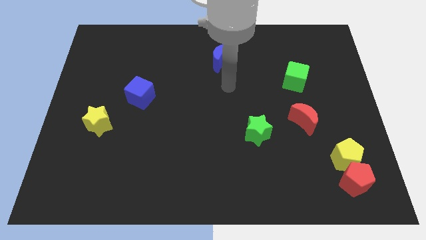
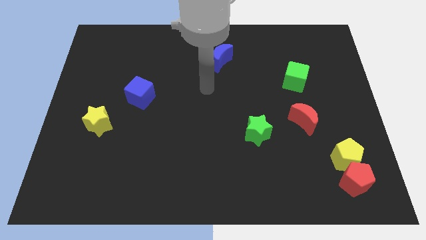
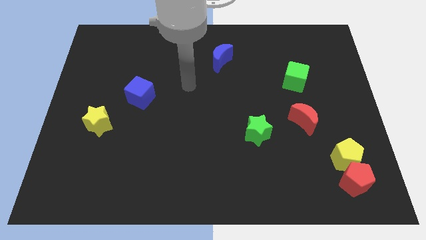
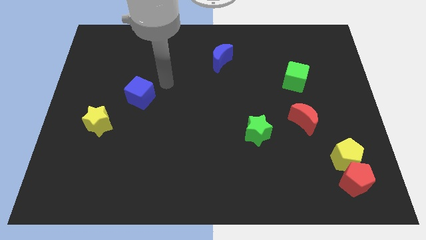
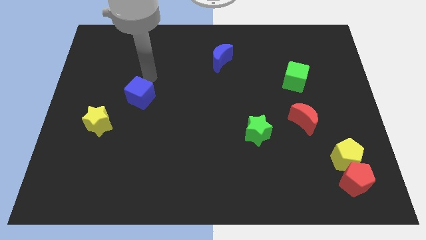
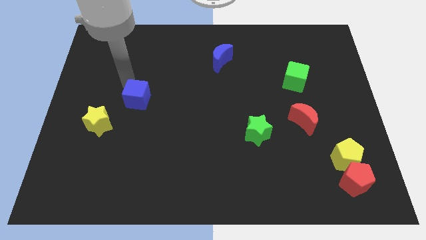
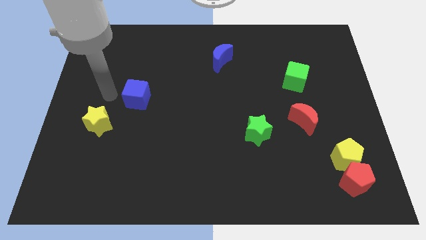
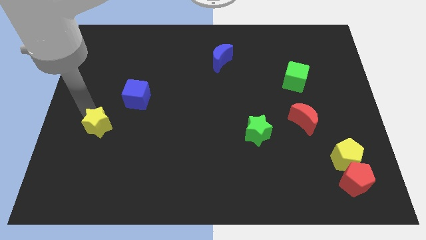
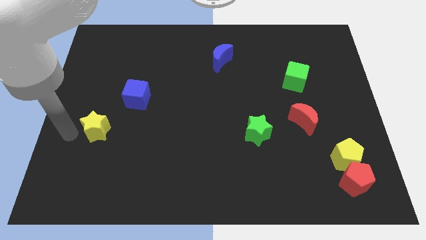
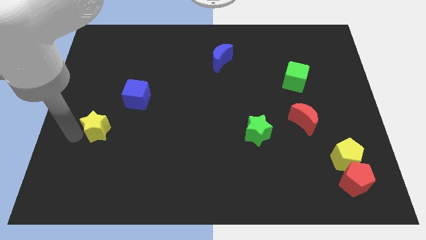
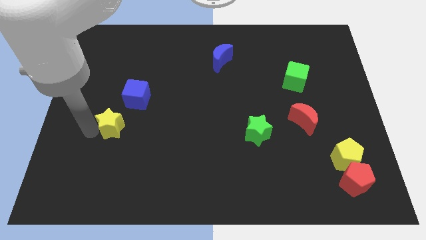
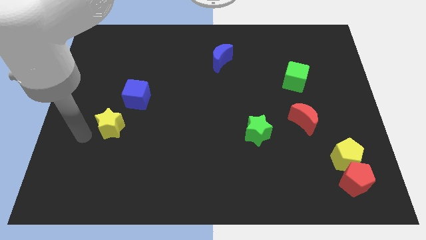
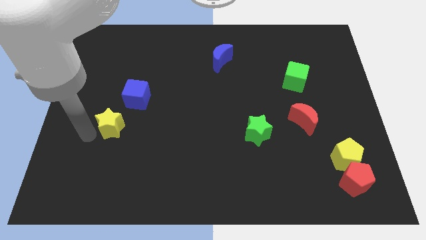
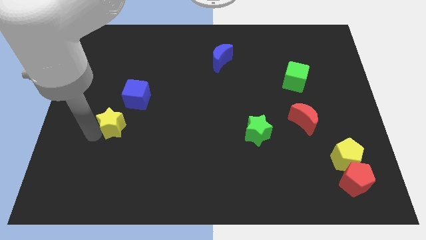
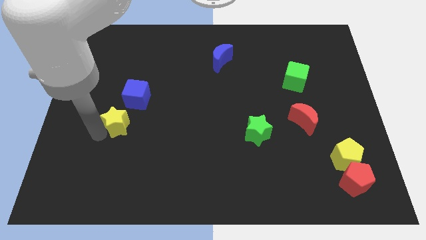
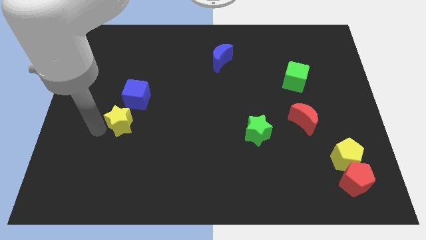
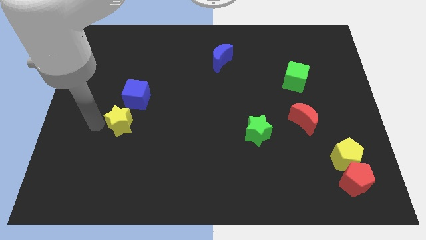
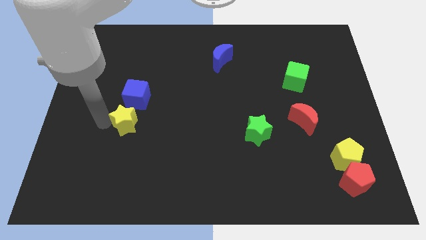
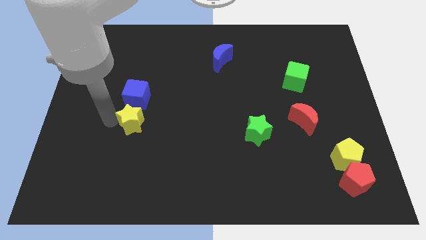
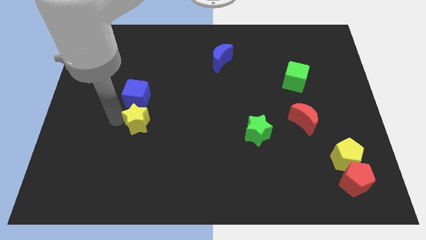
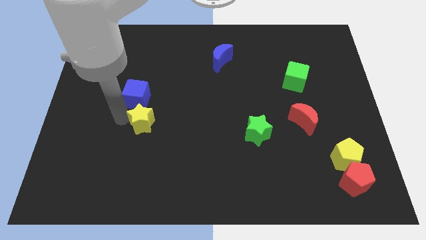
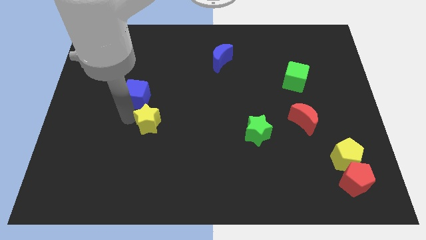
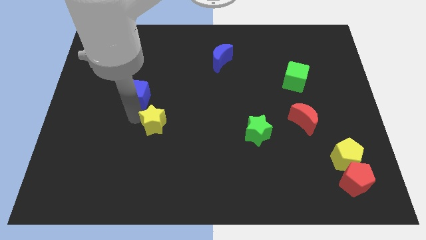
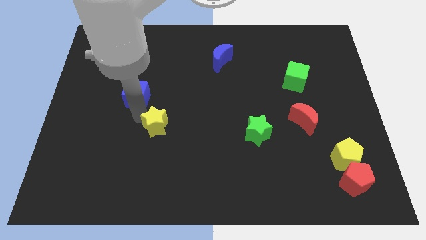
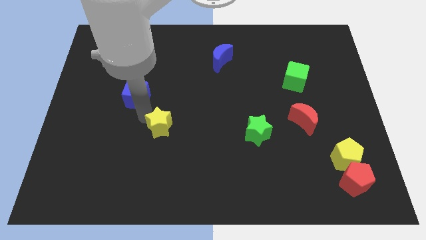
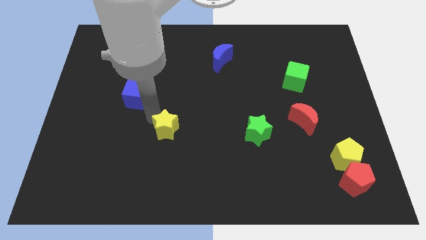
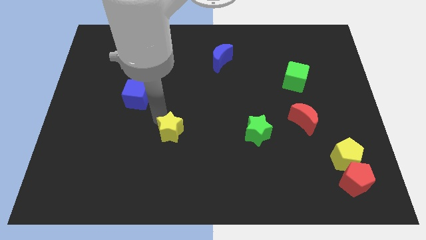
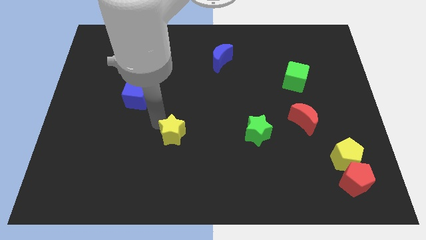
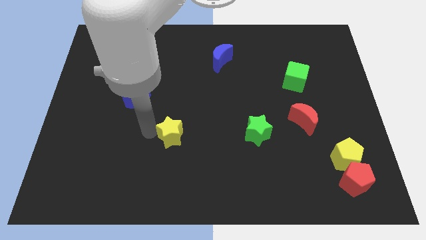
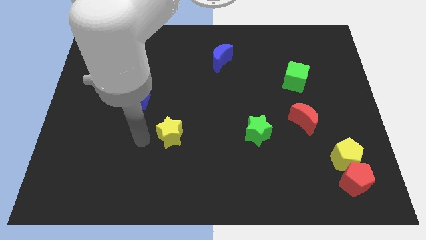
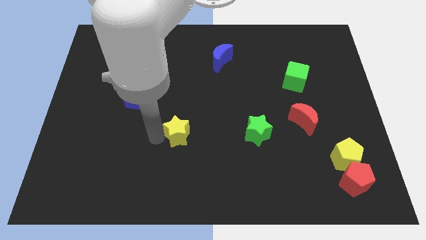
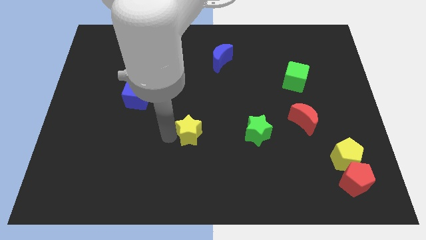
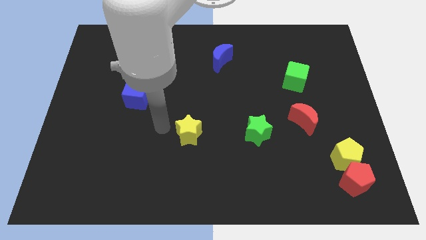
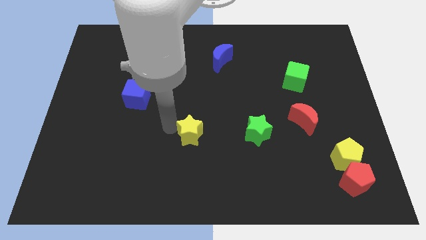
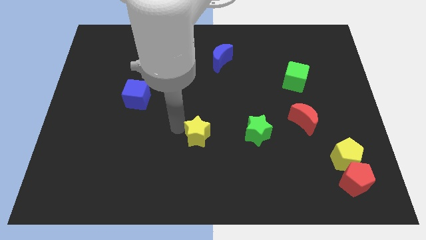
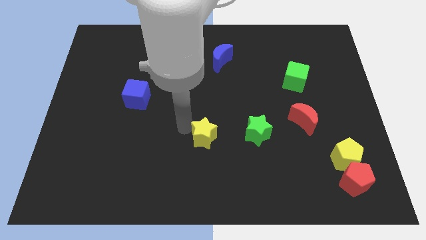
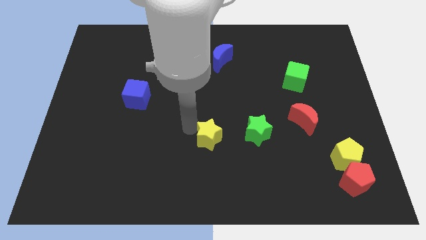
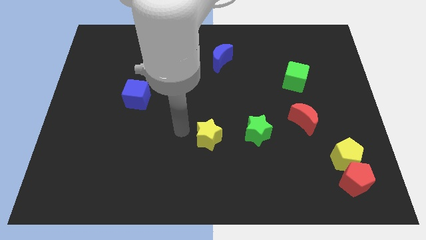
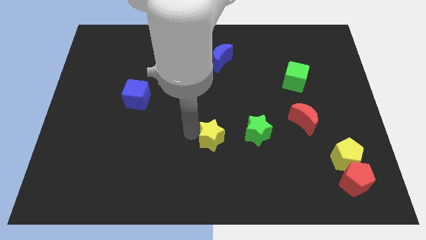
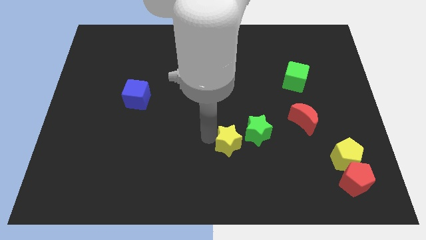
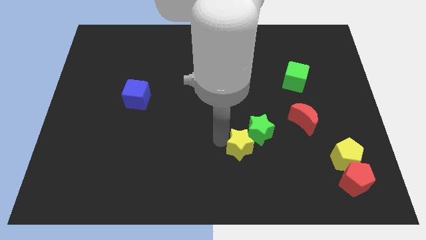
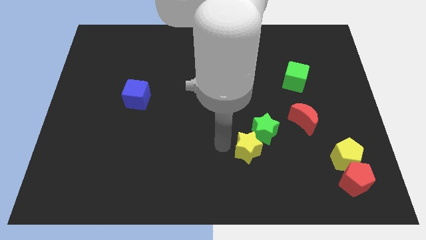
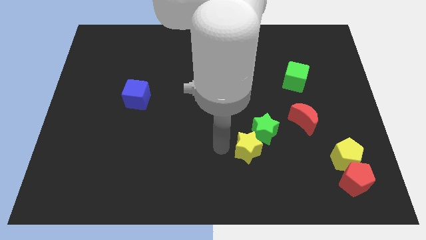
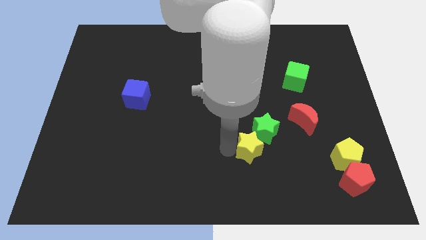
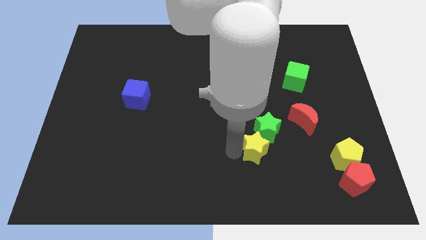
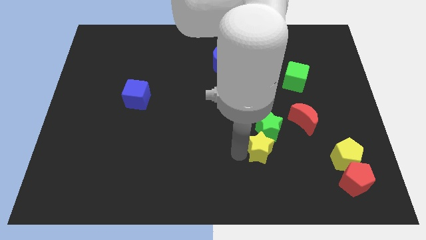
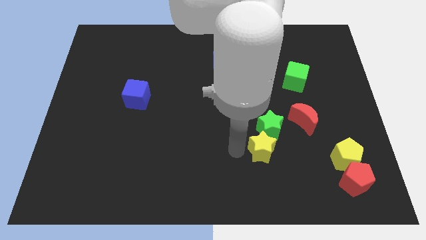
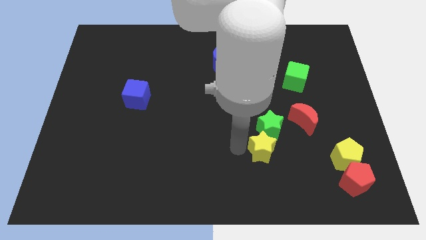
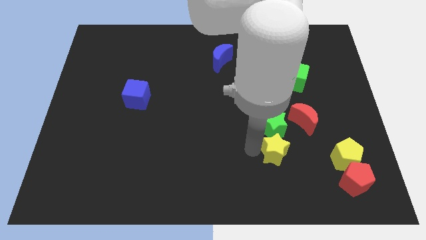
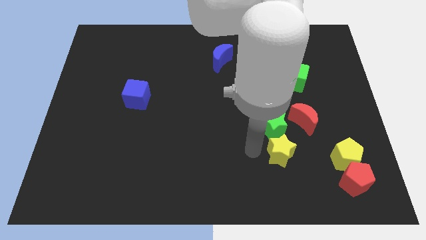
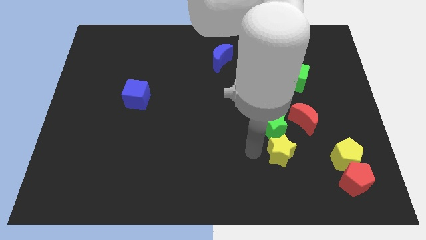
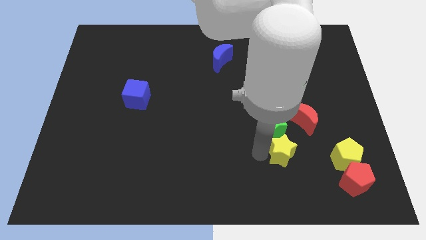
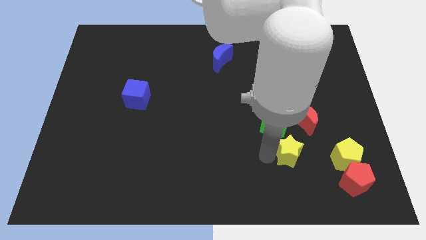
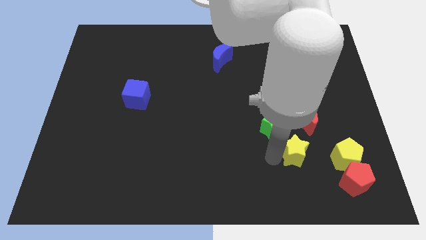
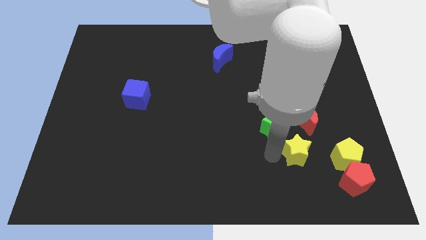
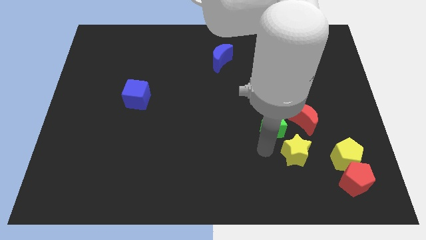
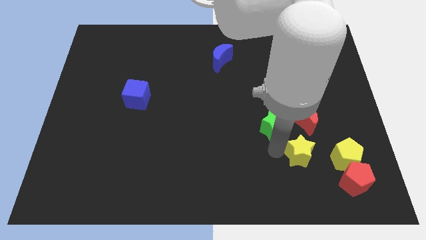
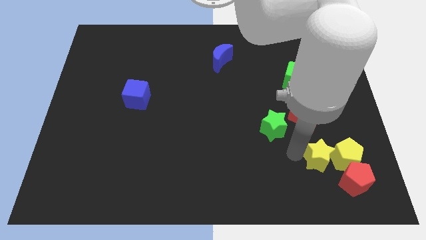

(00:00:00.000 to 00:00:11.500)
slide the yellow star towards the yellow pentagon
